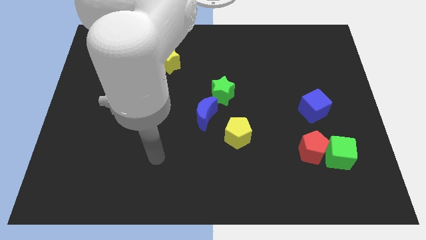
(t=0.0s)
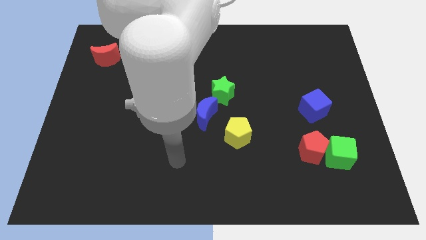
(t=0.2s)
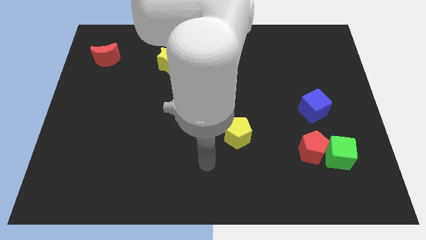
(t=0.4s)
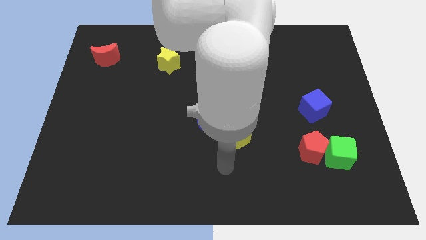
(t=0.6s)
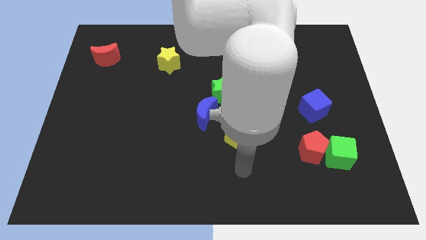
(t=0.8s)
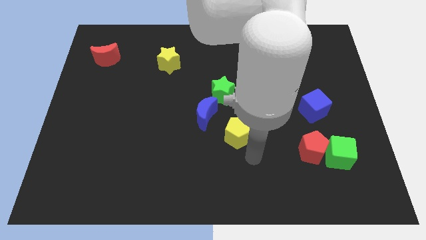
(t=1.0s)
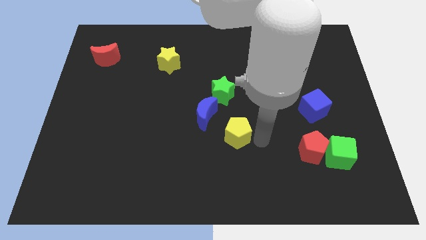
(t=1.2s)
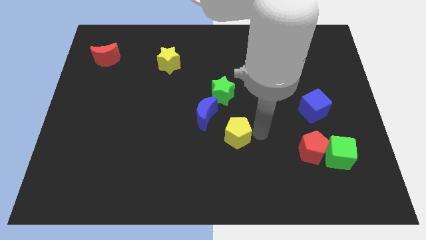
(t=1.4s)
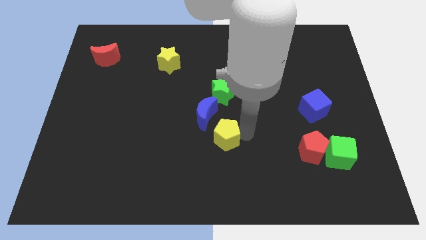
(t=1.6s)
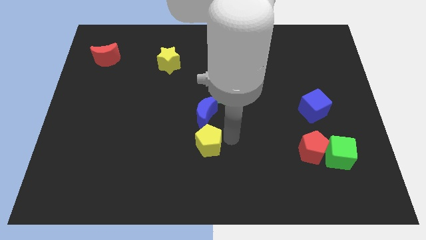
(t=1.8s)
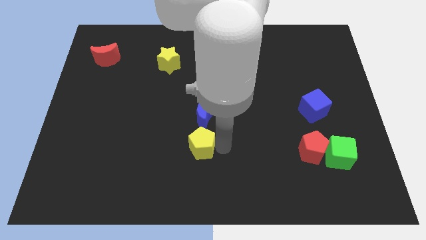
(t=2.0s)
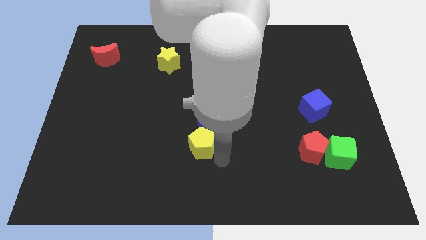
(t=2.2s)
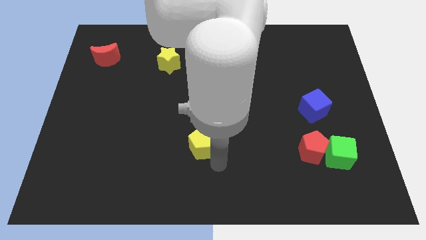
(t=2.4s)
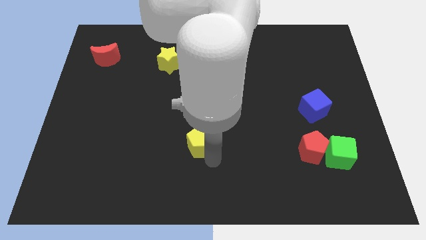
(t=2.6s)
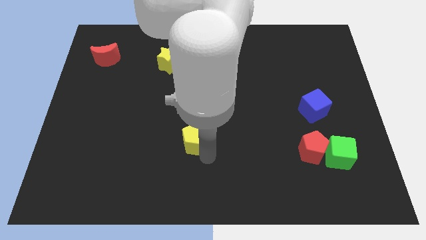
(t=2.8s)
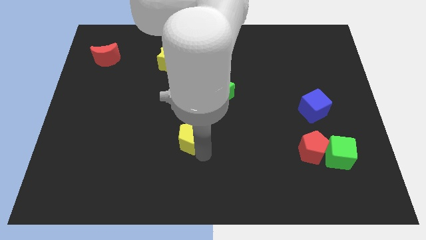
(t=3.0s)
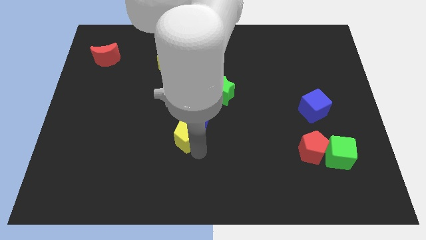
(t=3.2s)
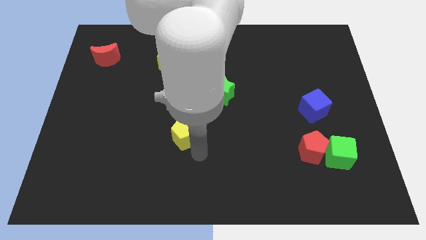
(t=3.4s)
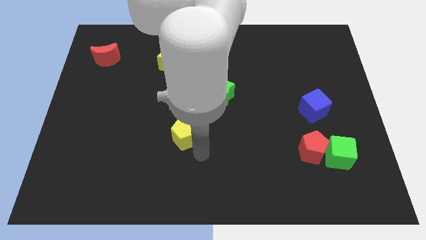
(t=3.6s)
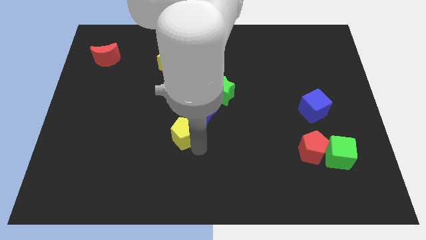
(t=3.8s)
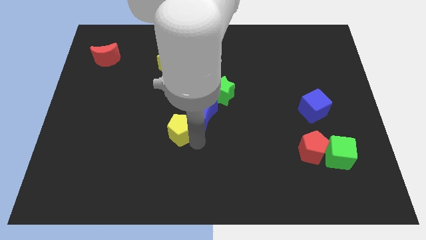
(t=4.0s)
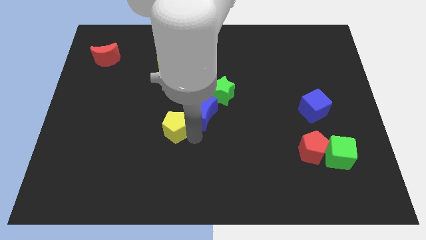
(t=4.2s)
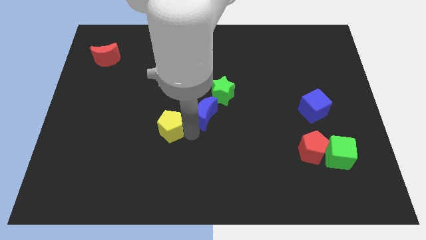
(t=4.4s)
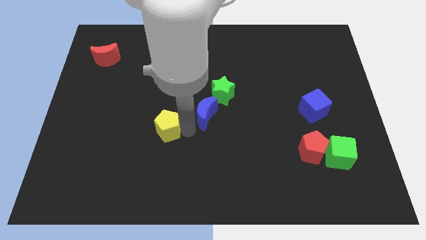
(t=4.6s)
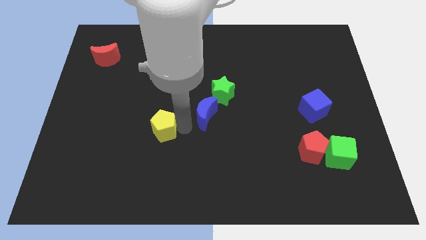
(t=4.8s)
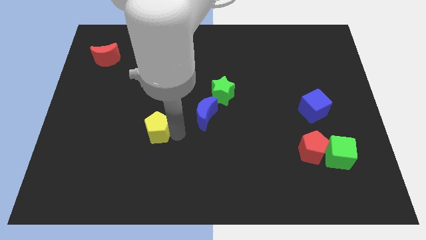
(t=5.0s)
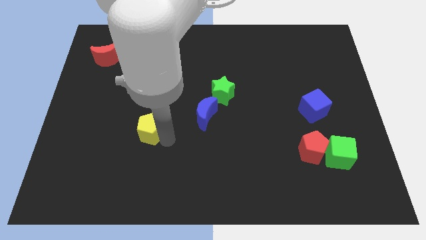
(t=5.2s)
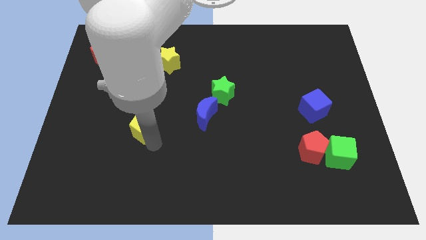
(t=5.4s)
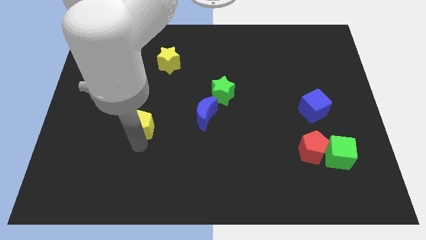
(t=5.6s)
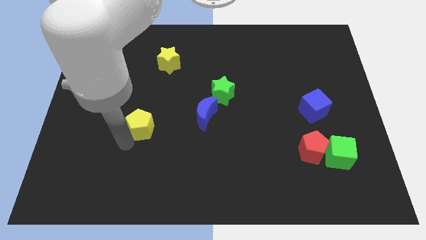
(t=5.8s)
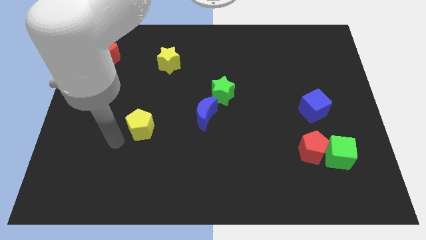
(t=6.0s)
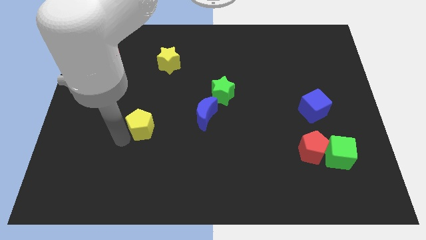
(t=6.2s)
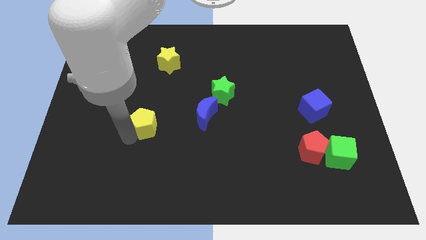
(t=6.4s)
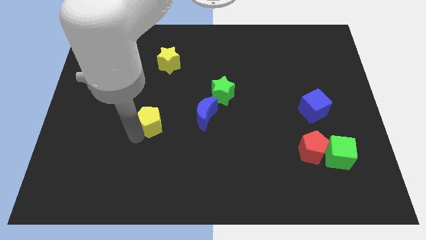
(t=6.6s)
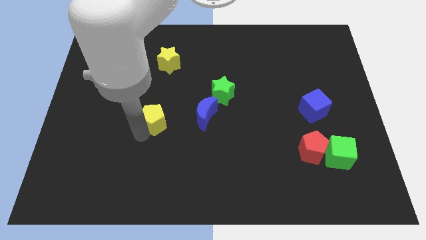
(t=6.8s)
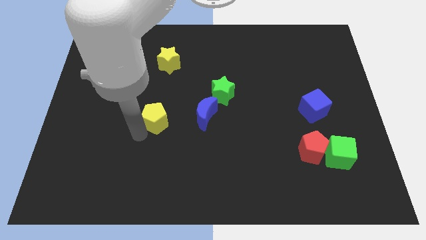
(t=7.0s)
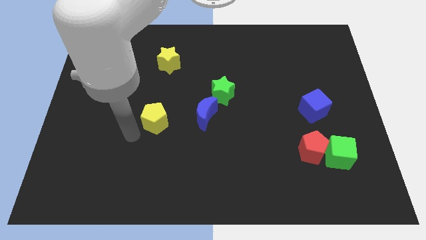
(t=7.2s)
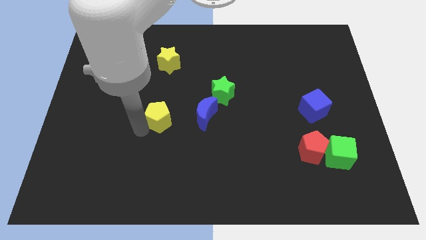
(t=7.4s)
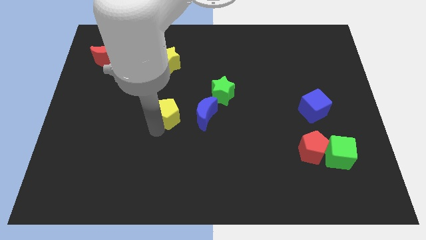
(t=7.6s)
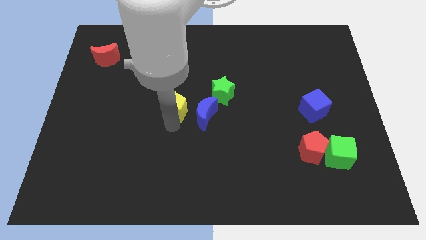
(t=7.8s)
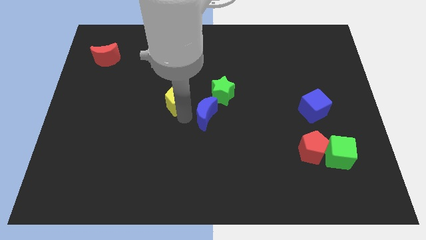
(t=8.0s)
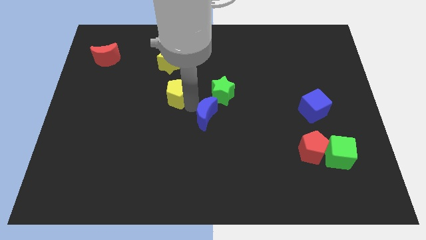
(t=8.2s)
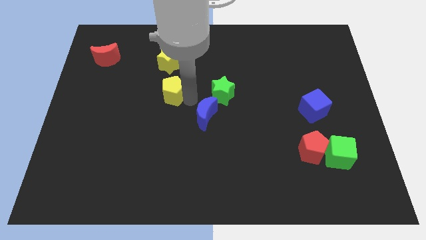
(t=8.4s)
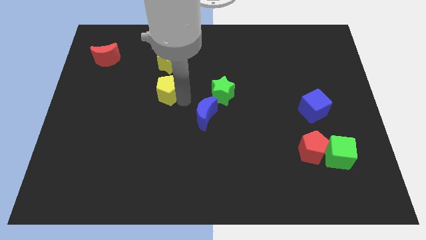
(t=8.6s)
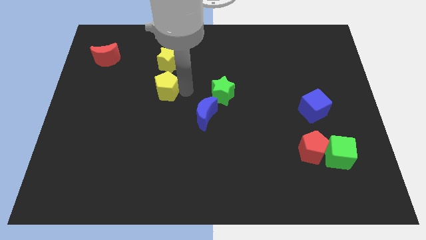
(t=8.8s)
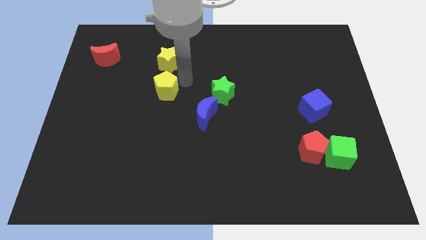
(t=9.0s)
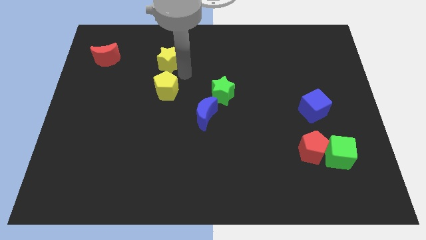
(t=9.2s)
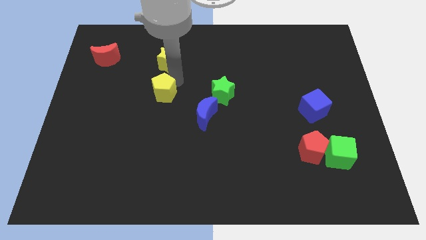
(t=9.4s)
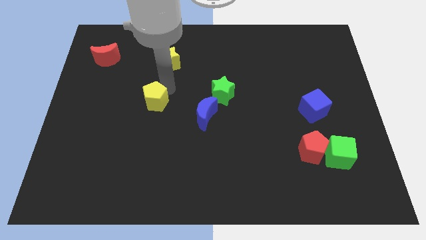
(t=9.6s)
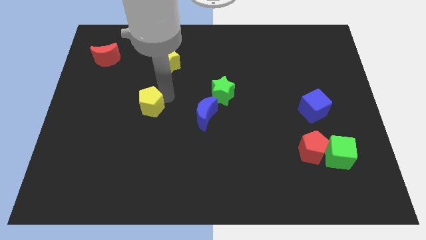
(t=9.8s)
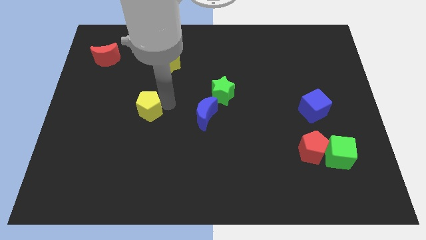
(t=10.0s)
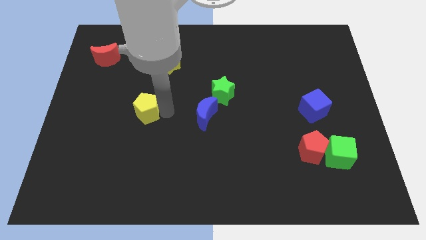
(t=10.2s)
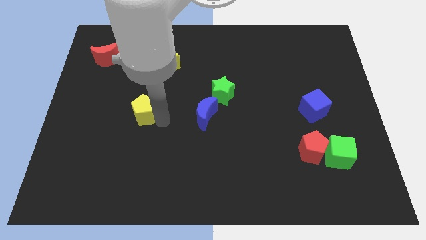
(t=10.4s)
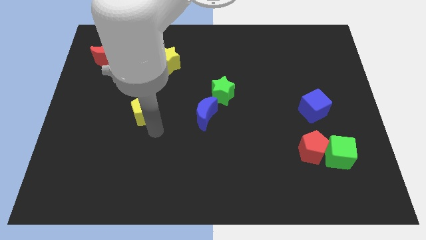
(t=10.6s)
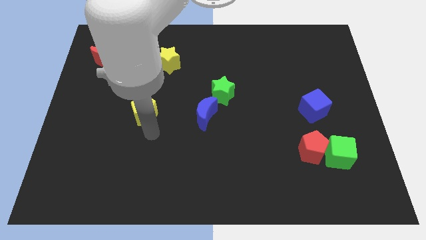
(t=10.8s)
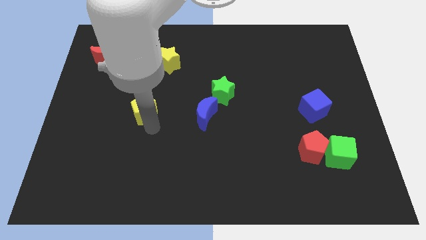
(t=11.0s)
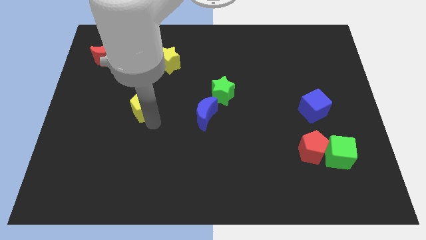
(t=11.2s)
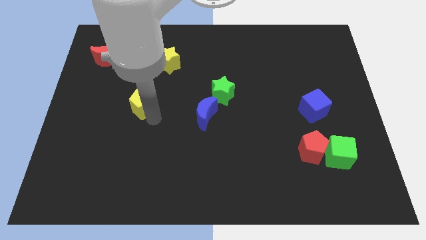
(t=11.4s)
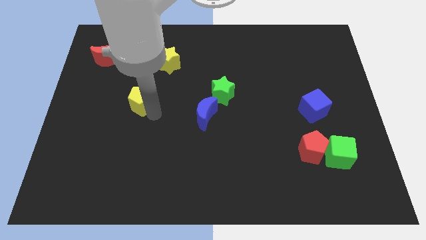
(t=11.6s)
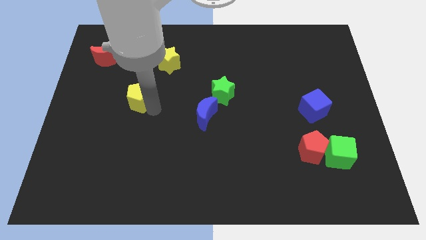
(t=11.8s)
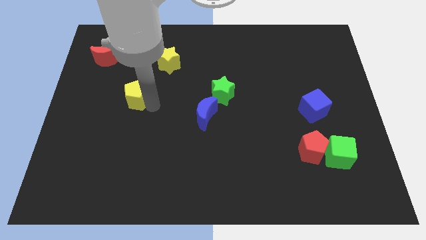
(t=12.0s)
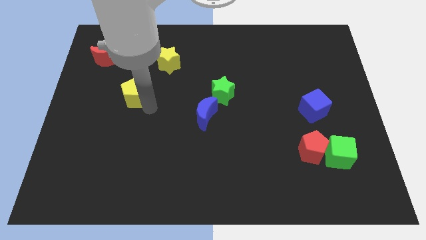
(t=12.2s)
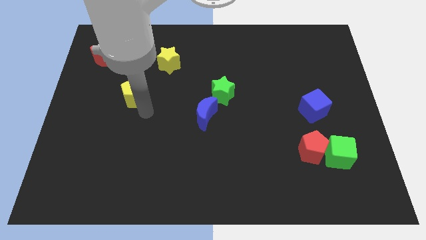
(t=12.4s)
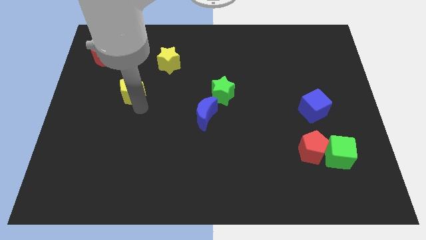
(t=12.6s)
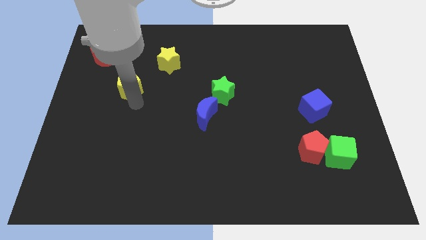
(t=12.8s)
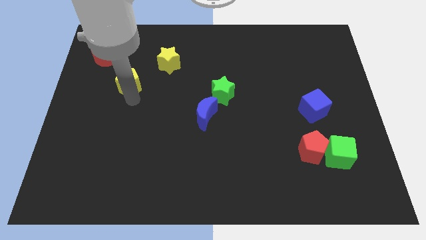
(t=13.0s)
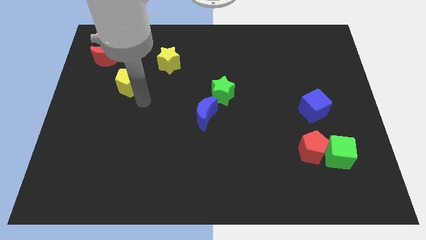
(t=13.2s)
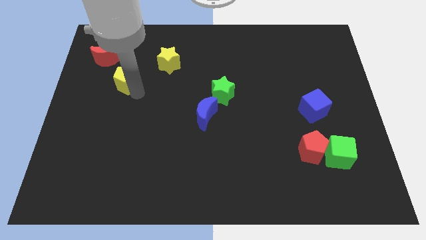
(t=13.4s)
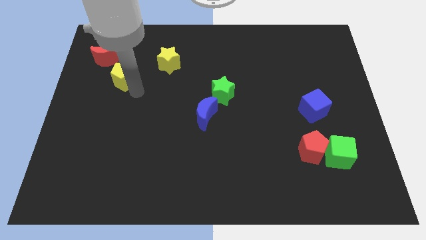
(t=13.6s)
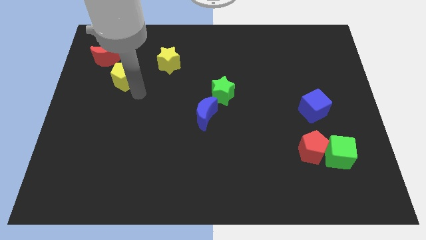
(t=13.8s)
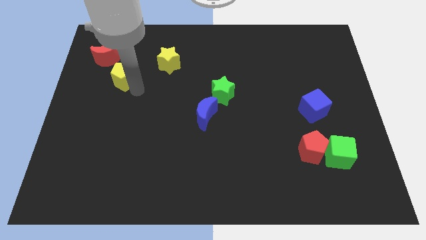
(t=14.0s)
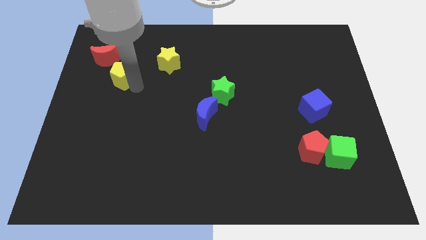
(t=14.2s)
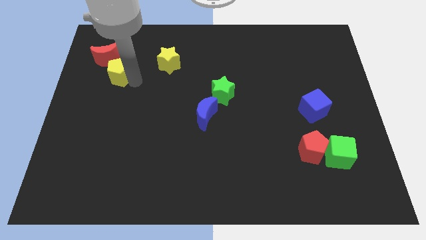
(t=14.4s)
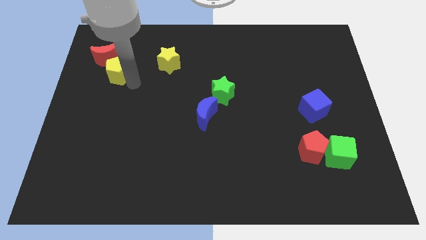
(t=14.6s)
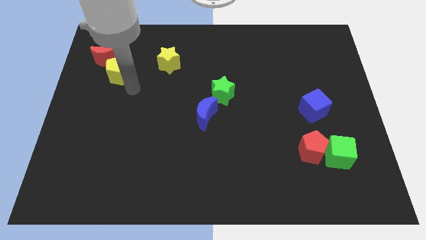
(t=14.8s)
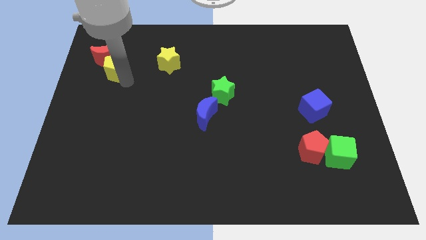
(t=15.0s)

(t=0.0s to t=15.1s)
slide the yellow pentagon towards the red moon
